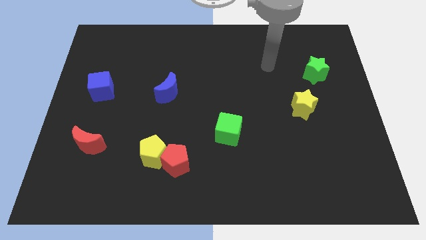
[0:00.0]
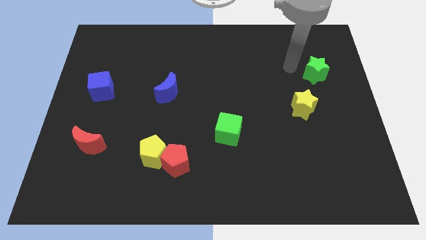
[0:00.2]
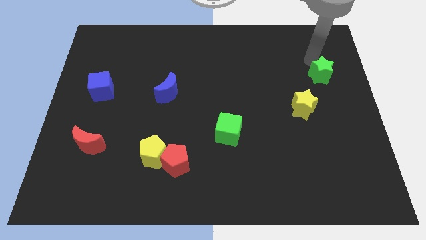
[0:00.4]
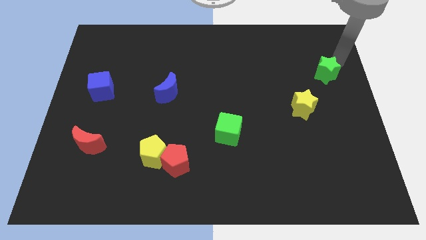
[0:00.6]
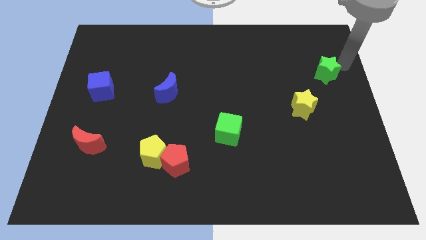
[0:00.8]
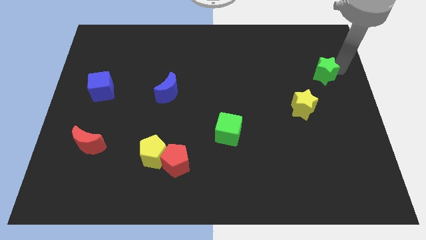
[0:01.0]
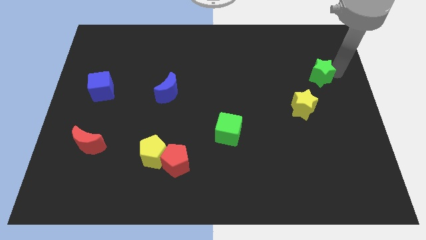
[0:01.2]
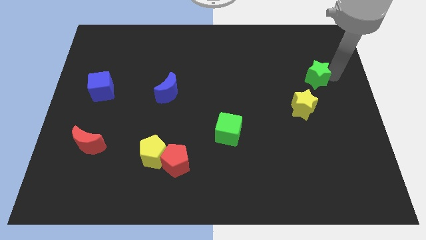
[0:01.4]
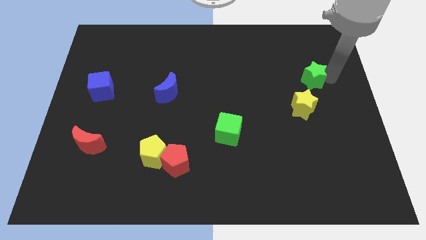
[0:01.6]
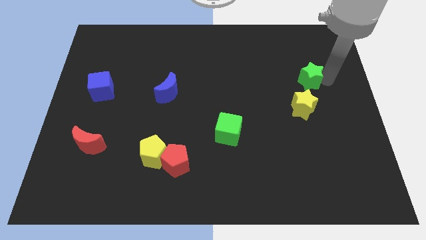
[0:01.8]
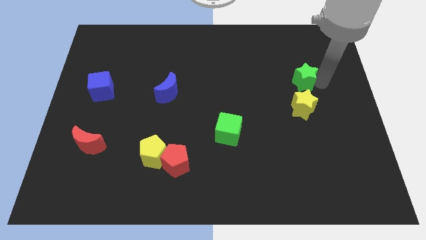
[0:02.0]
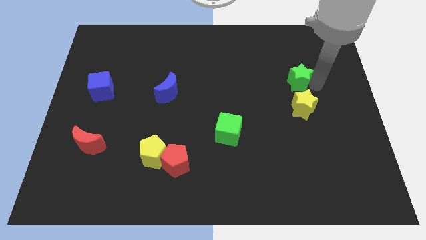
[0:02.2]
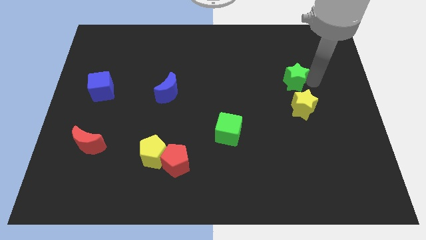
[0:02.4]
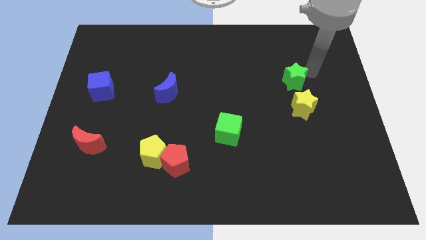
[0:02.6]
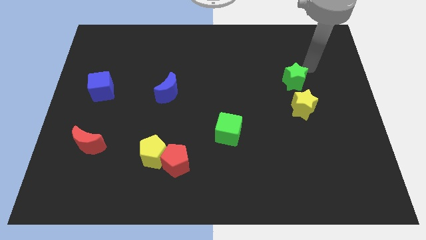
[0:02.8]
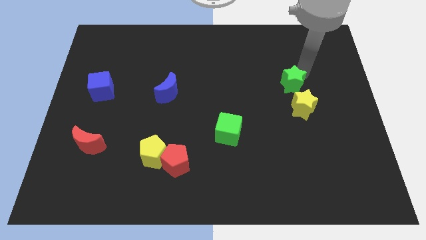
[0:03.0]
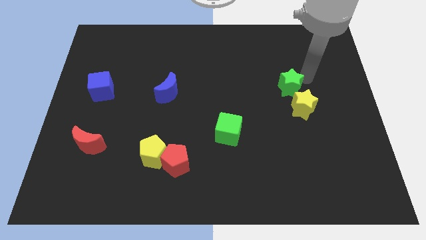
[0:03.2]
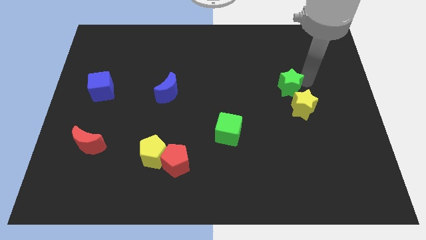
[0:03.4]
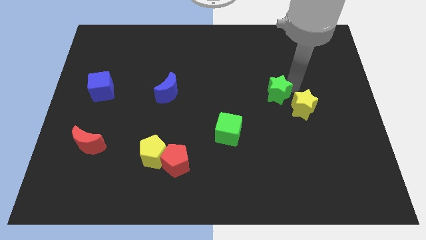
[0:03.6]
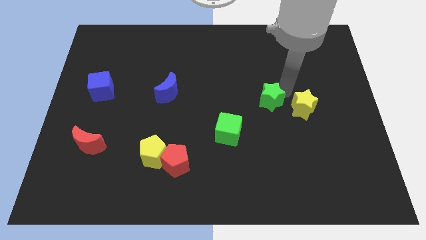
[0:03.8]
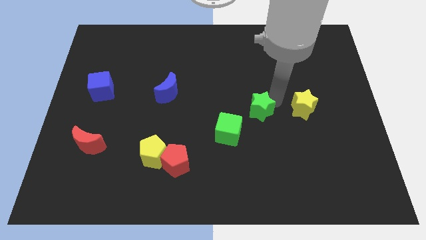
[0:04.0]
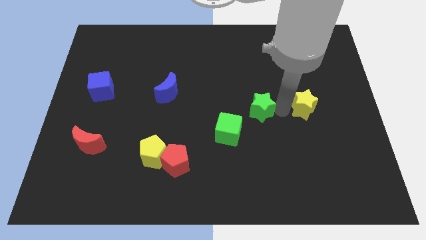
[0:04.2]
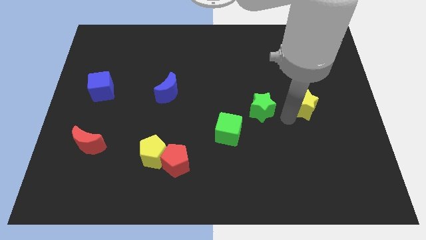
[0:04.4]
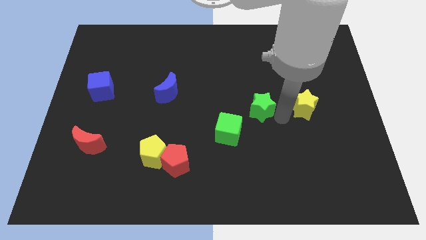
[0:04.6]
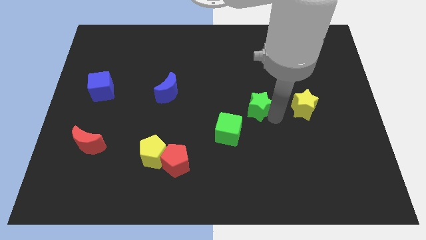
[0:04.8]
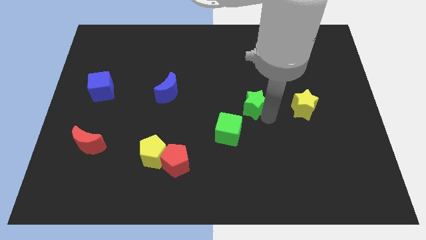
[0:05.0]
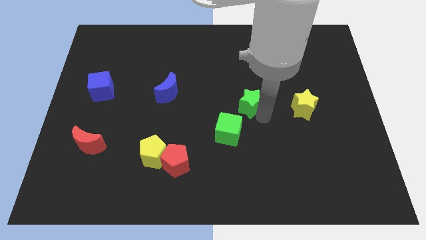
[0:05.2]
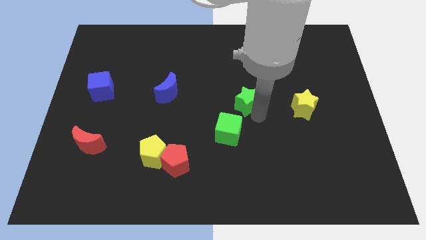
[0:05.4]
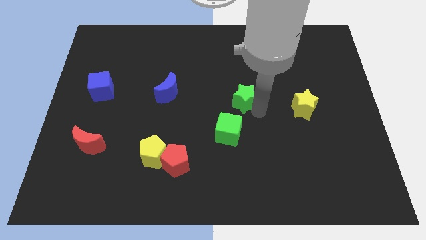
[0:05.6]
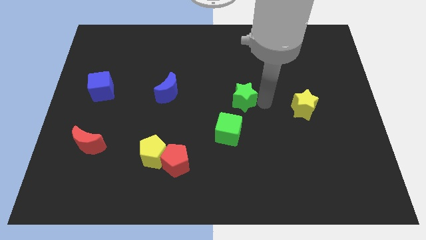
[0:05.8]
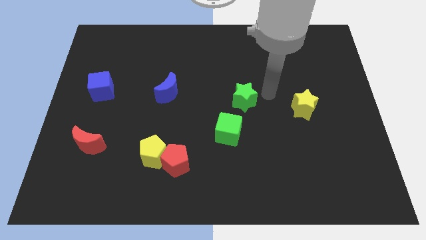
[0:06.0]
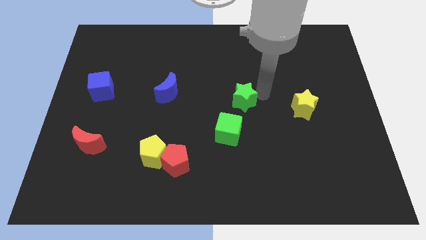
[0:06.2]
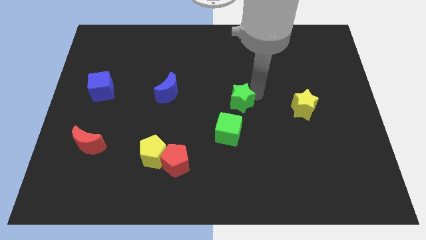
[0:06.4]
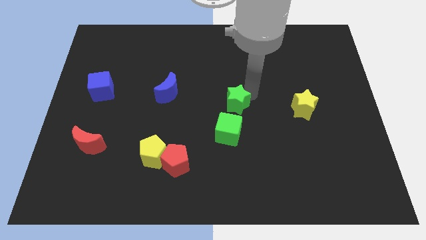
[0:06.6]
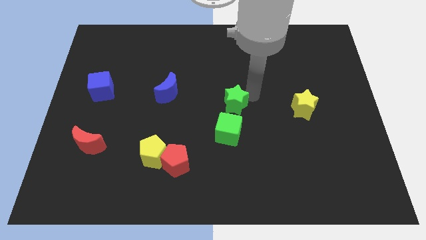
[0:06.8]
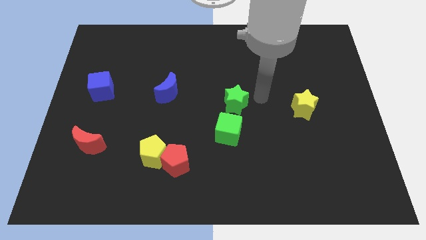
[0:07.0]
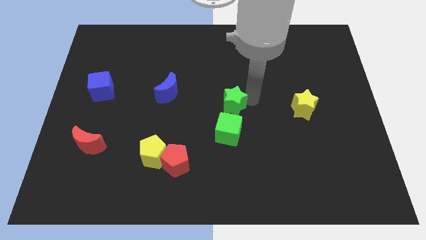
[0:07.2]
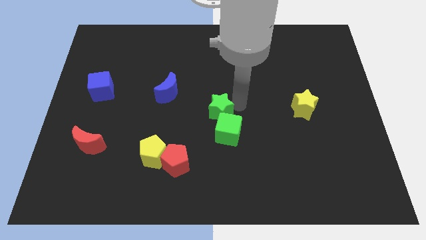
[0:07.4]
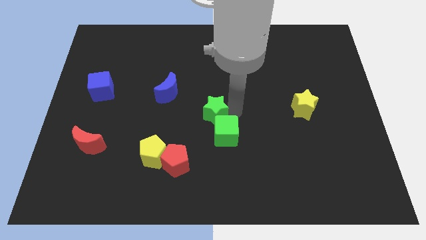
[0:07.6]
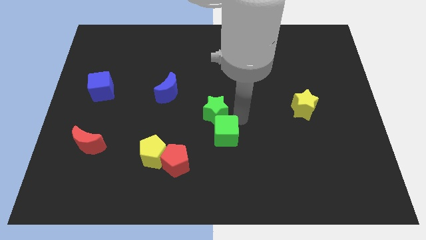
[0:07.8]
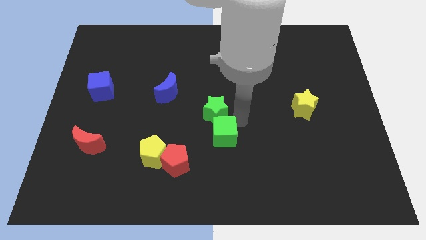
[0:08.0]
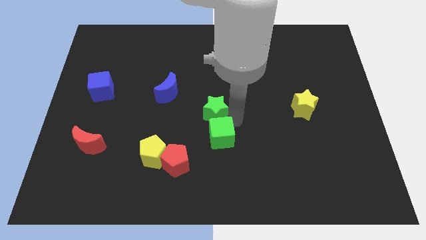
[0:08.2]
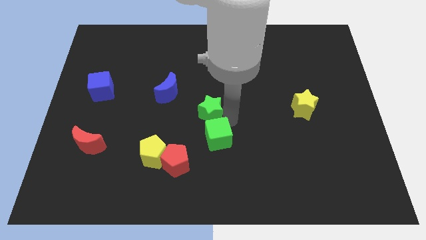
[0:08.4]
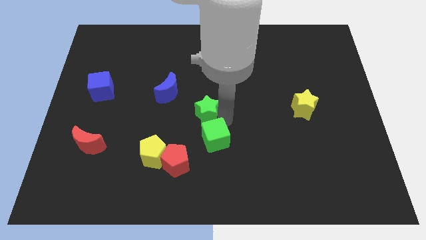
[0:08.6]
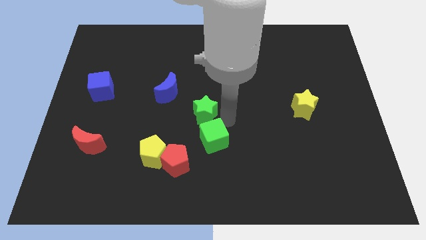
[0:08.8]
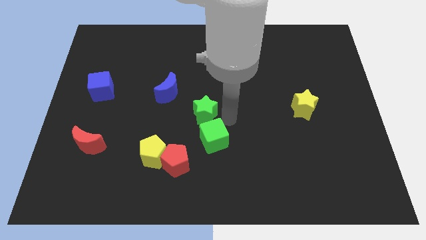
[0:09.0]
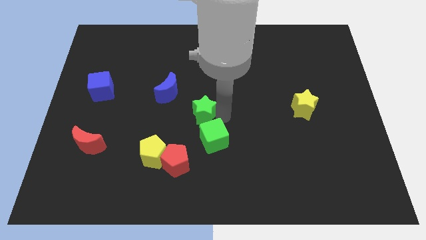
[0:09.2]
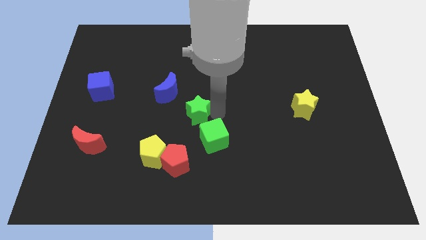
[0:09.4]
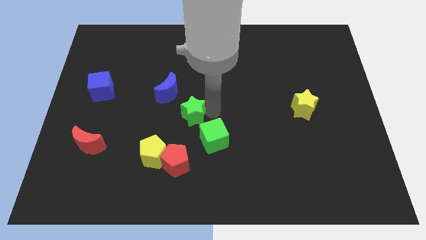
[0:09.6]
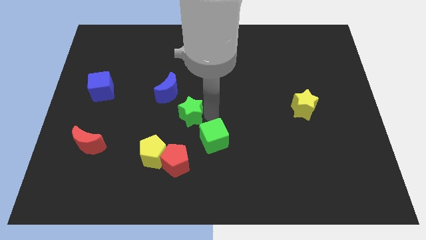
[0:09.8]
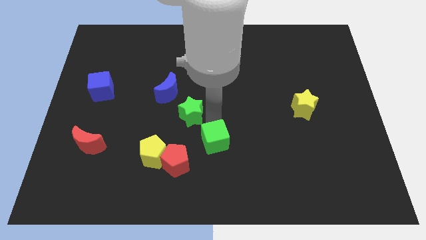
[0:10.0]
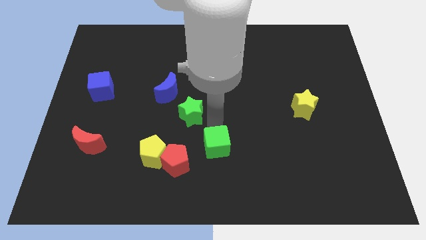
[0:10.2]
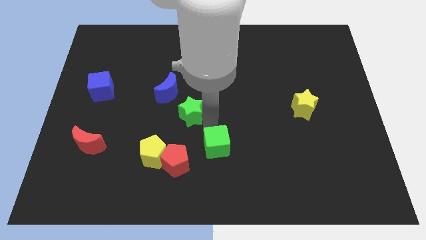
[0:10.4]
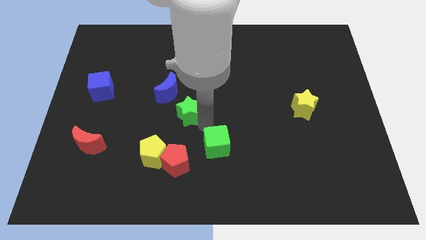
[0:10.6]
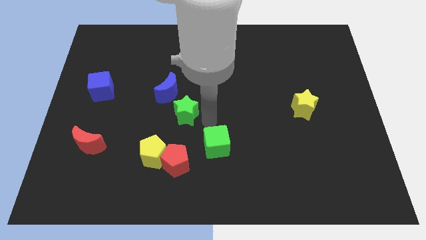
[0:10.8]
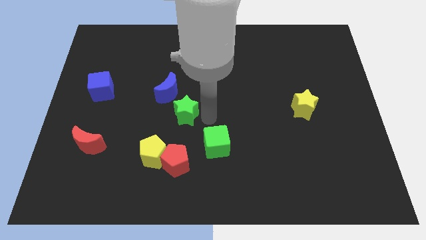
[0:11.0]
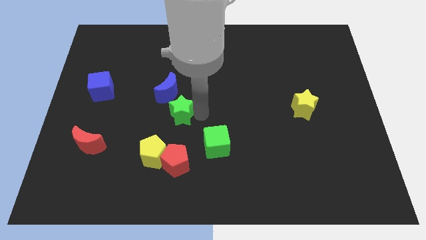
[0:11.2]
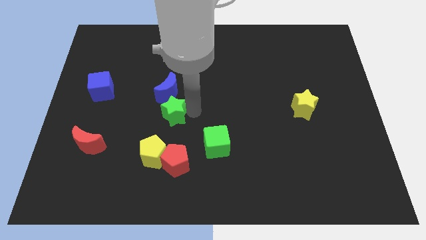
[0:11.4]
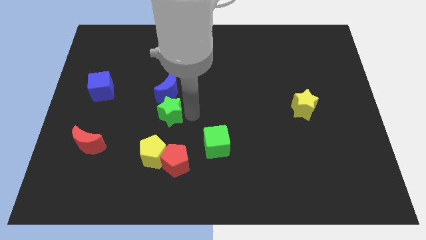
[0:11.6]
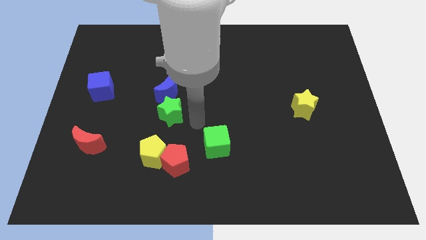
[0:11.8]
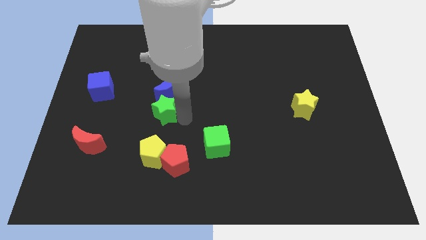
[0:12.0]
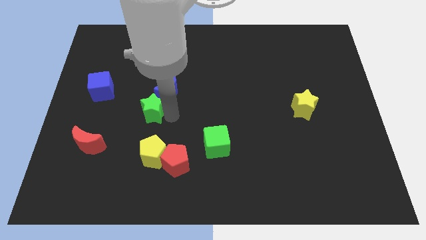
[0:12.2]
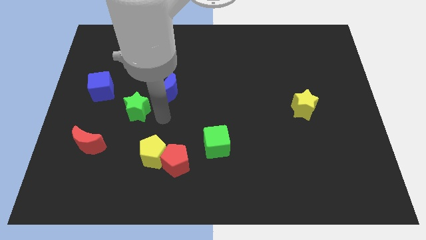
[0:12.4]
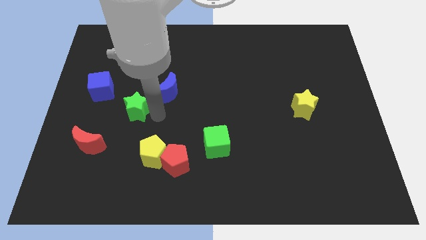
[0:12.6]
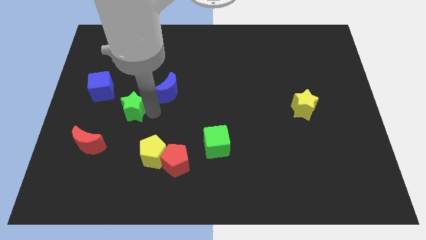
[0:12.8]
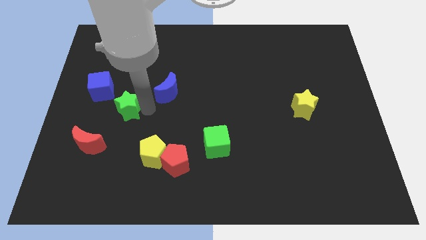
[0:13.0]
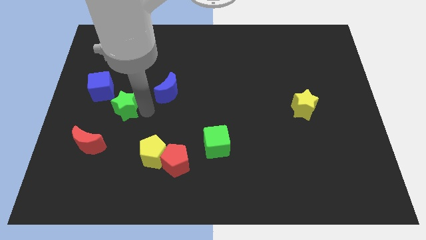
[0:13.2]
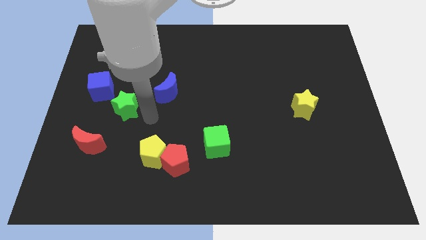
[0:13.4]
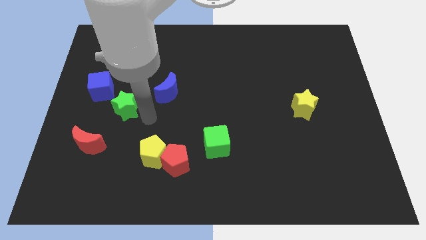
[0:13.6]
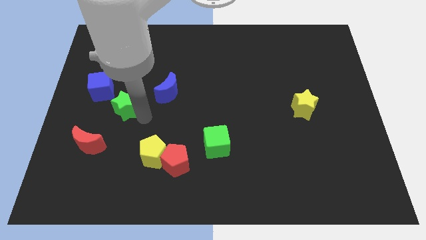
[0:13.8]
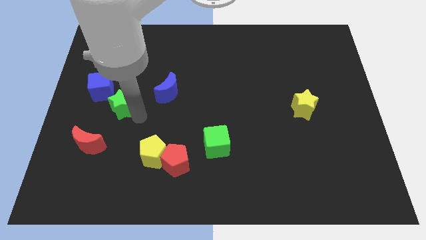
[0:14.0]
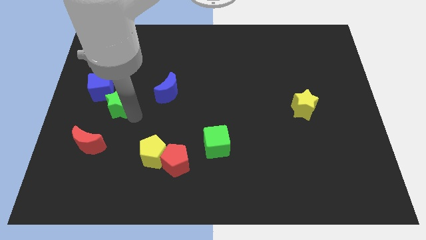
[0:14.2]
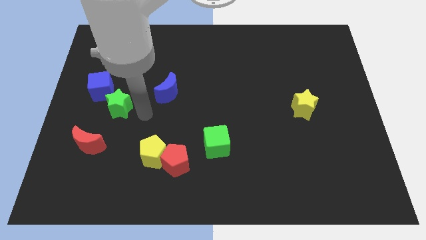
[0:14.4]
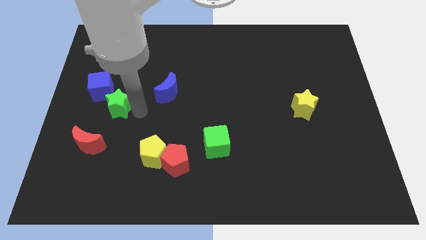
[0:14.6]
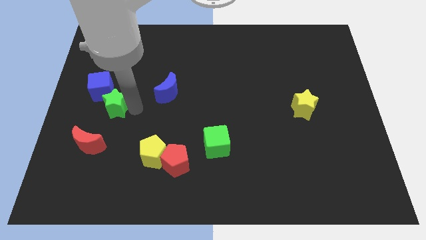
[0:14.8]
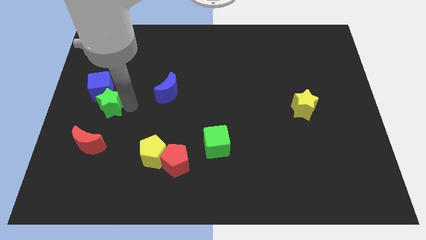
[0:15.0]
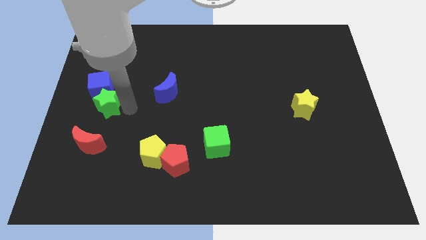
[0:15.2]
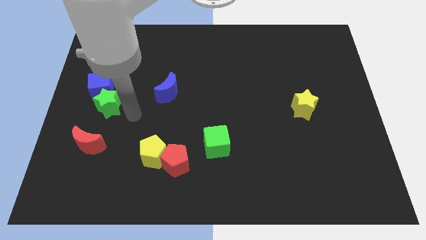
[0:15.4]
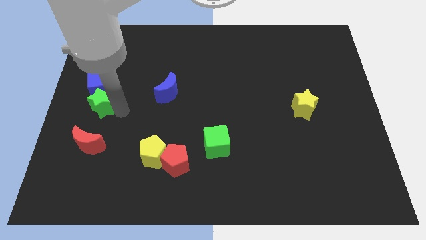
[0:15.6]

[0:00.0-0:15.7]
move the green star to the center left
